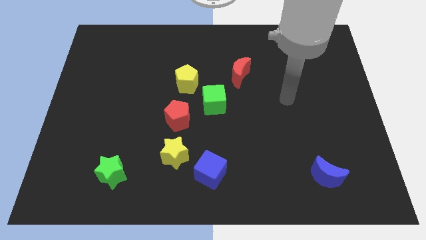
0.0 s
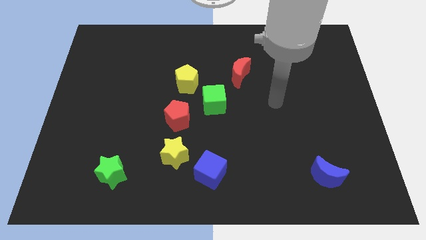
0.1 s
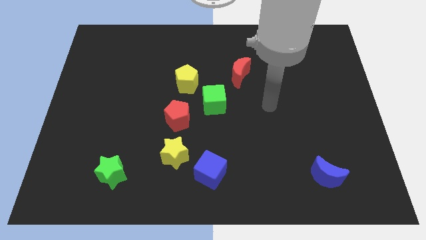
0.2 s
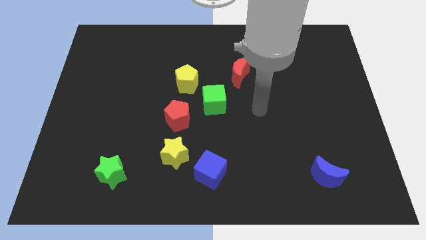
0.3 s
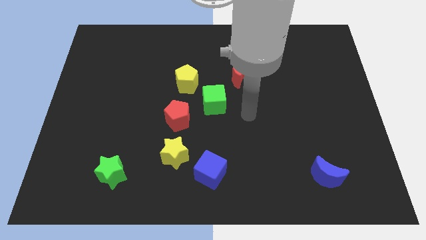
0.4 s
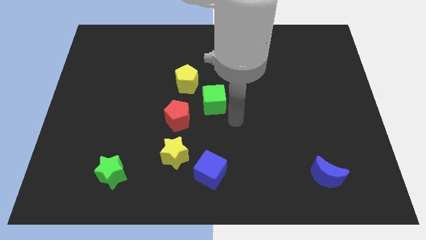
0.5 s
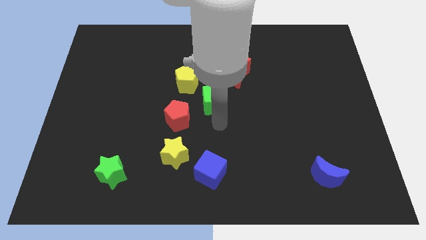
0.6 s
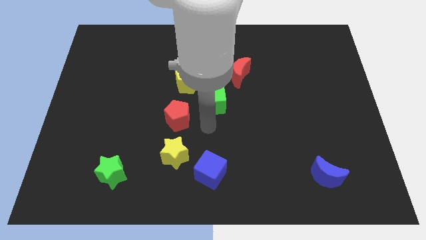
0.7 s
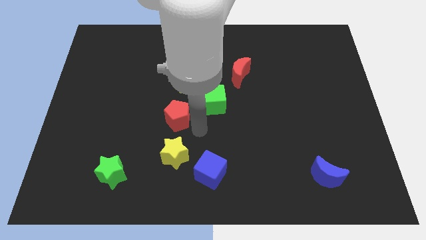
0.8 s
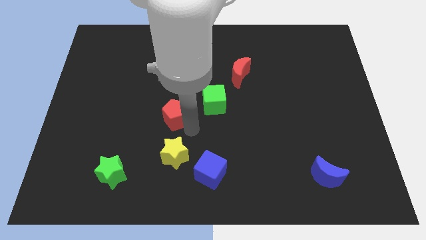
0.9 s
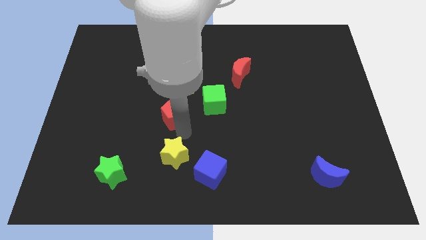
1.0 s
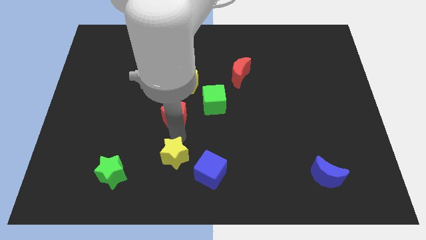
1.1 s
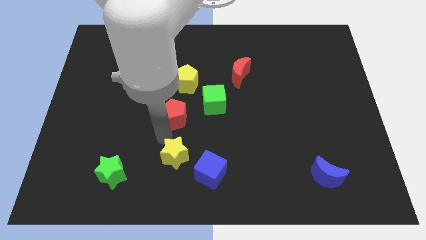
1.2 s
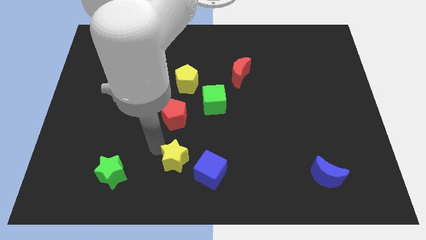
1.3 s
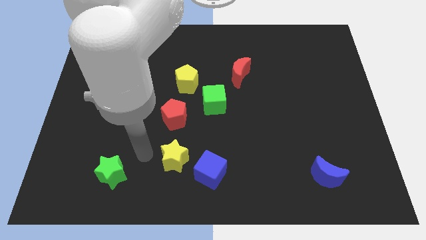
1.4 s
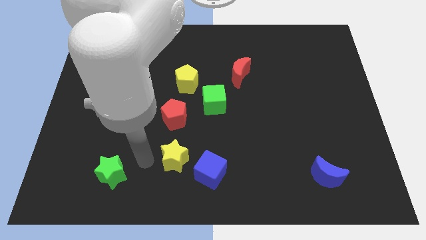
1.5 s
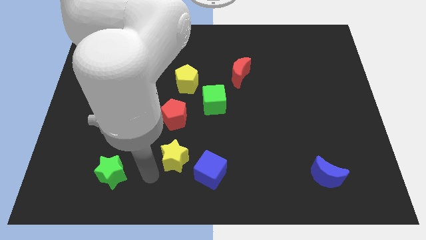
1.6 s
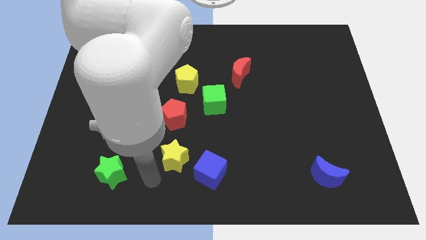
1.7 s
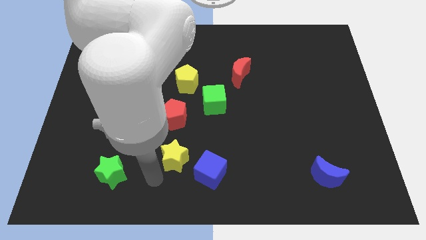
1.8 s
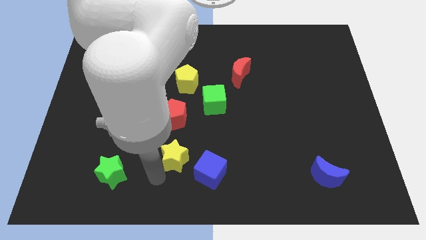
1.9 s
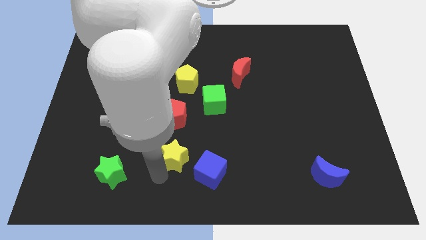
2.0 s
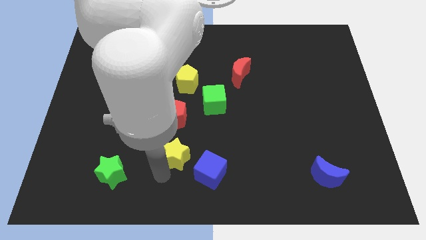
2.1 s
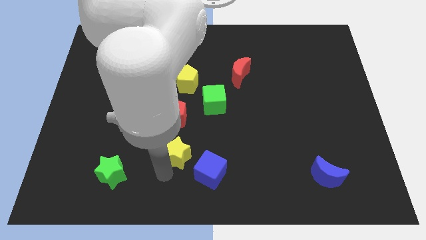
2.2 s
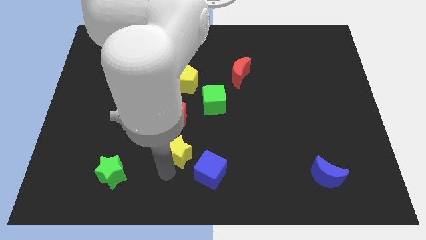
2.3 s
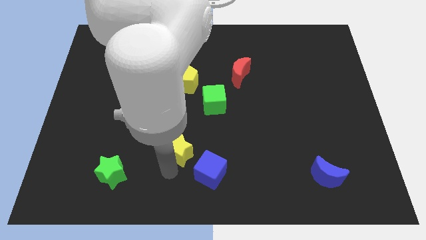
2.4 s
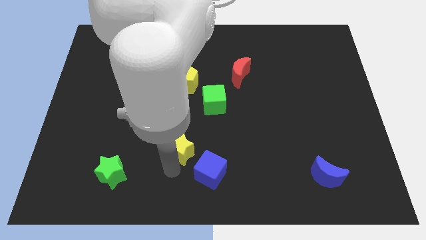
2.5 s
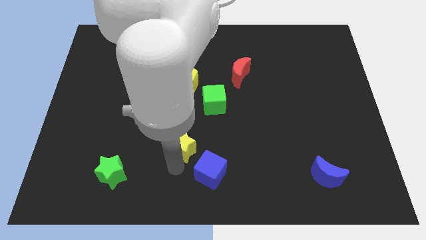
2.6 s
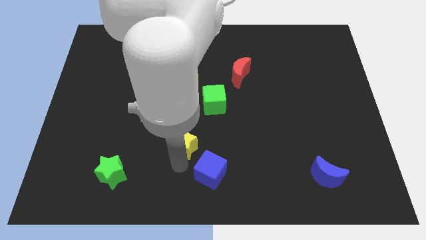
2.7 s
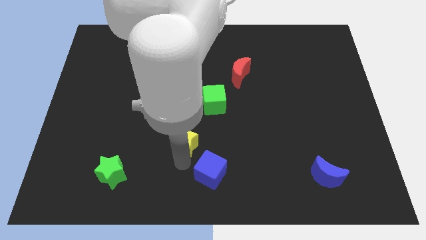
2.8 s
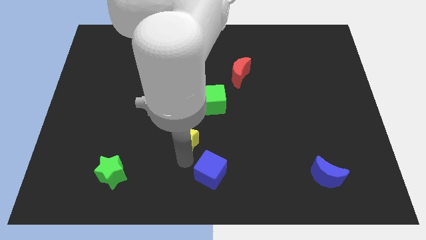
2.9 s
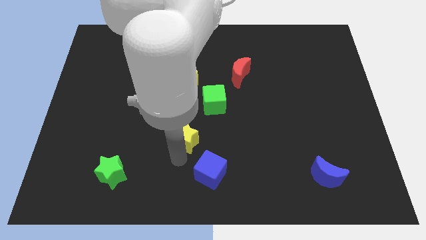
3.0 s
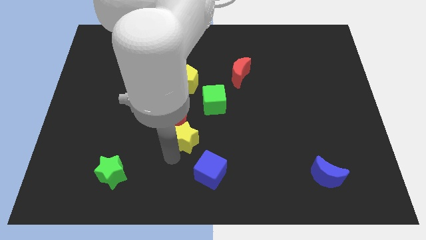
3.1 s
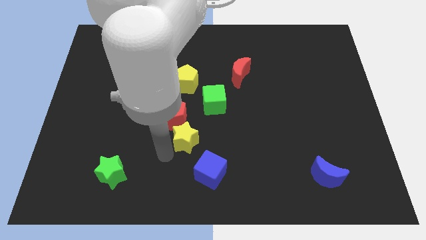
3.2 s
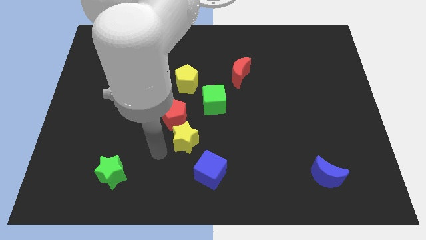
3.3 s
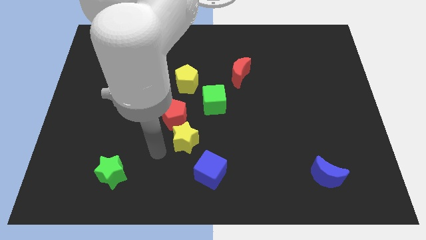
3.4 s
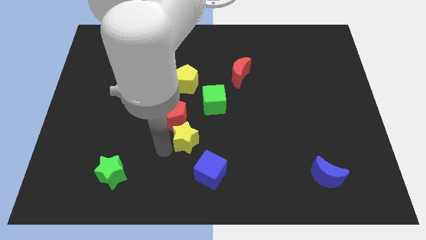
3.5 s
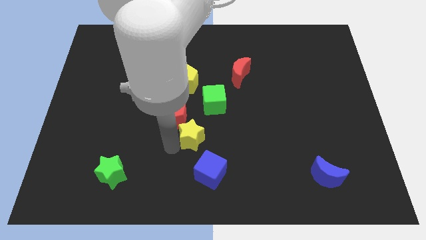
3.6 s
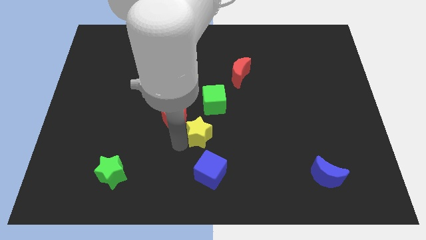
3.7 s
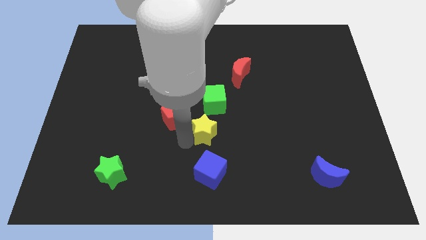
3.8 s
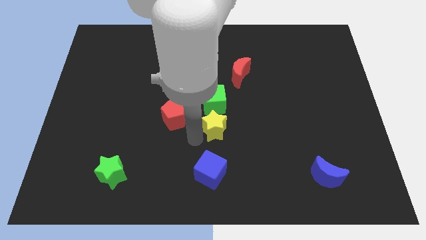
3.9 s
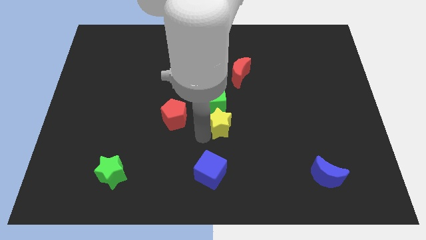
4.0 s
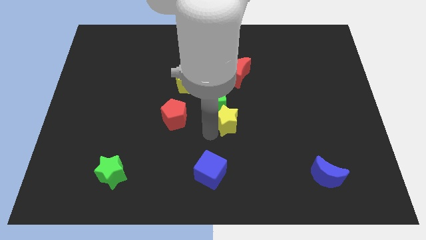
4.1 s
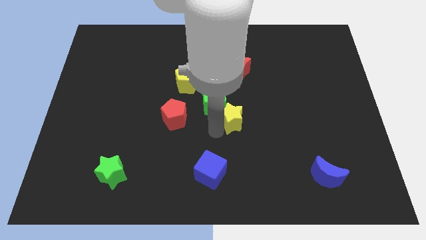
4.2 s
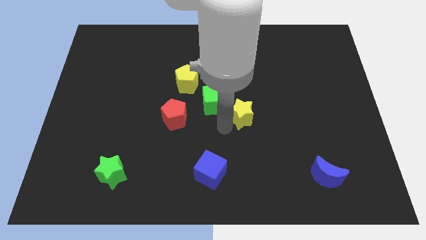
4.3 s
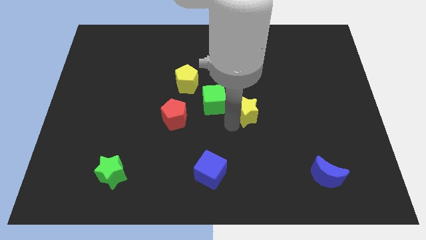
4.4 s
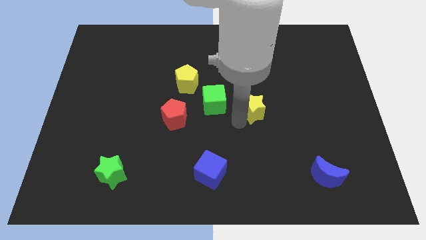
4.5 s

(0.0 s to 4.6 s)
push the yellow star upwards and then to the right

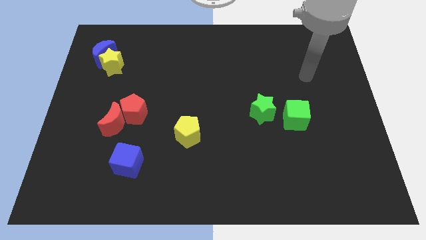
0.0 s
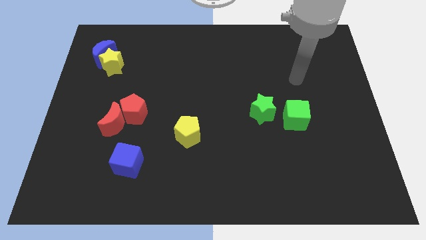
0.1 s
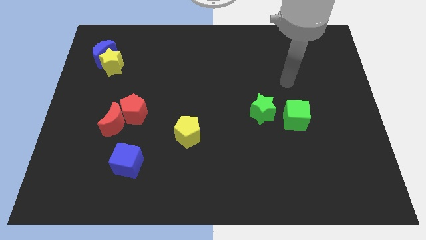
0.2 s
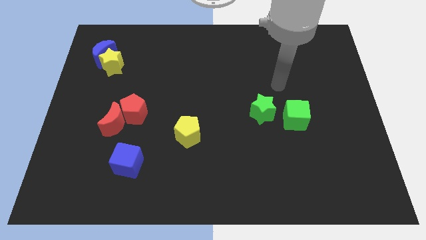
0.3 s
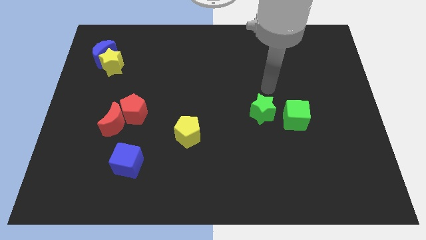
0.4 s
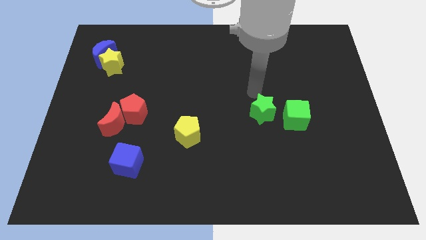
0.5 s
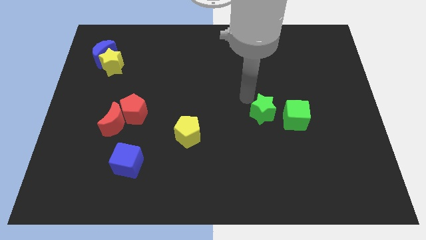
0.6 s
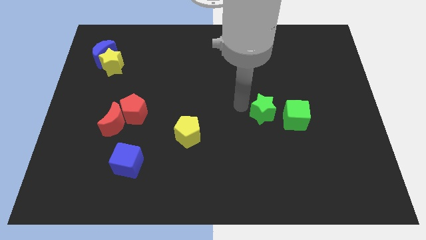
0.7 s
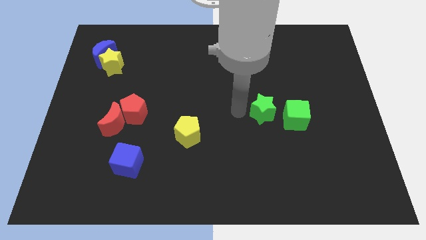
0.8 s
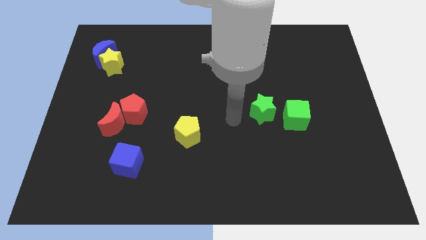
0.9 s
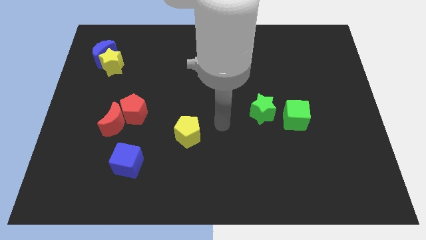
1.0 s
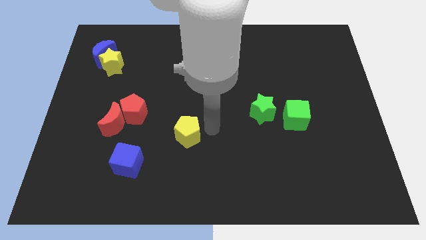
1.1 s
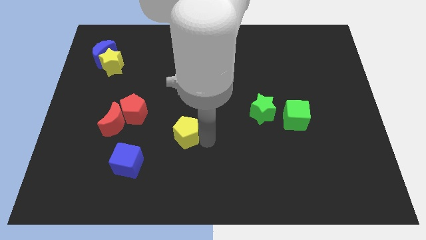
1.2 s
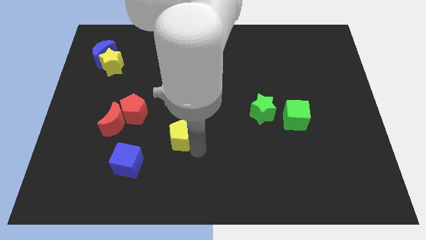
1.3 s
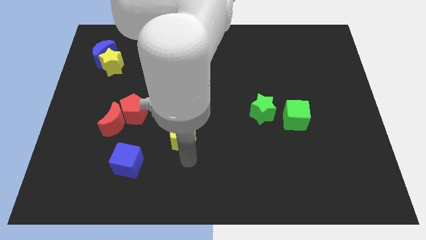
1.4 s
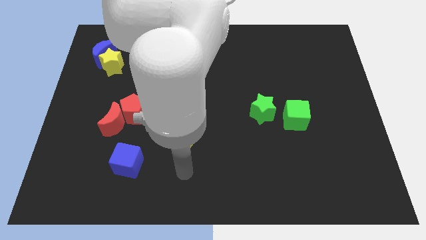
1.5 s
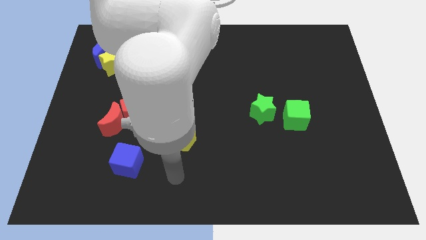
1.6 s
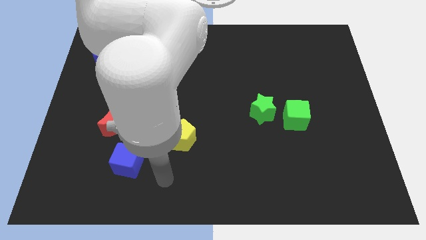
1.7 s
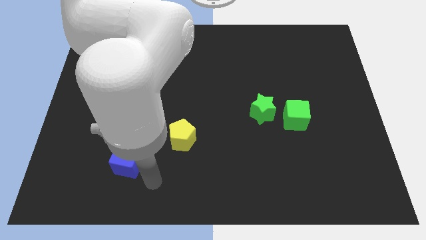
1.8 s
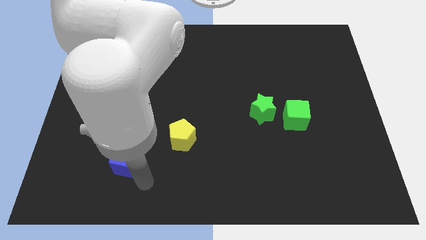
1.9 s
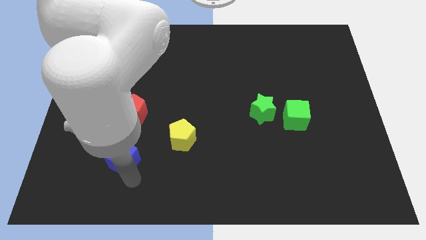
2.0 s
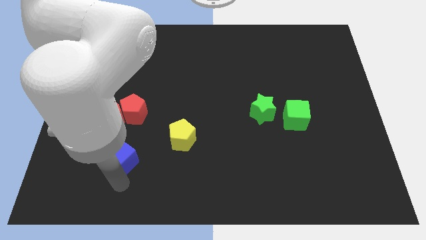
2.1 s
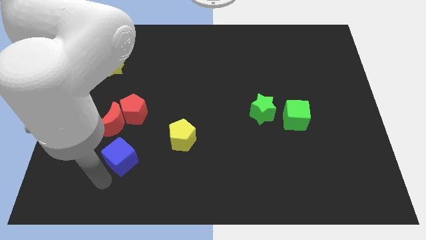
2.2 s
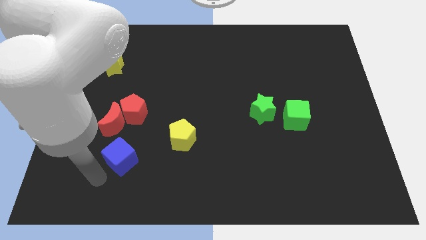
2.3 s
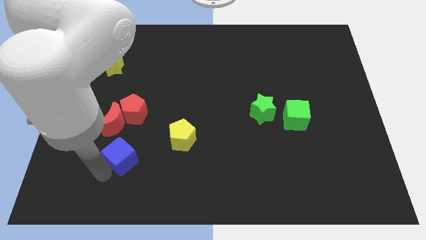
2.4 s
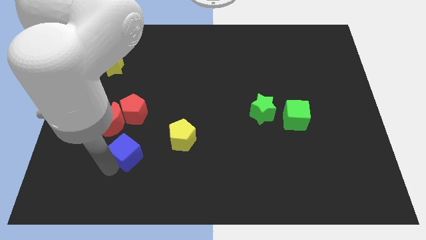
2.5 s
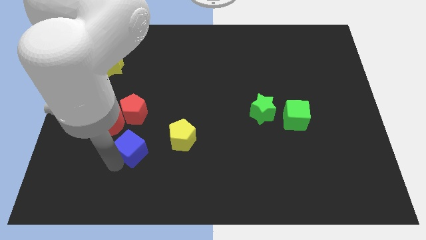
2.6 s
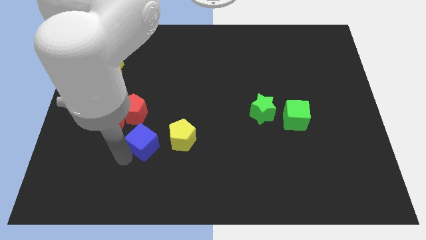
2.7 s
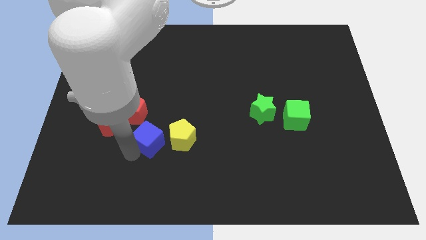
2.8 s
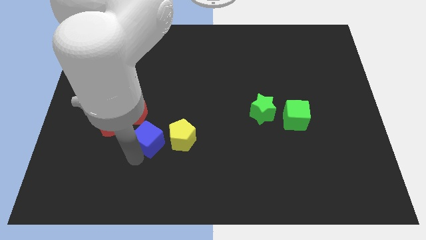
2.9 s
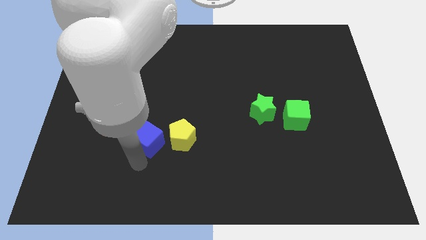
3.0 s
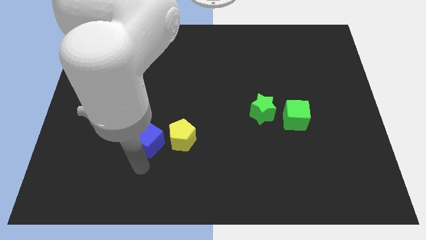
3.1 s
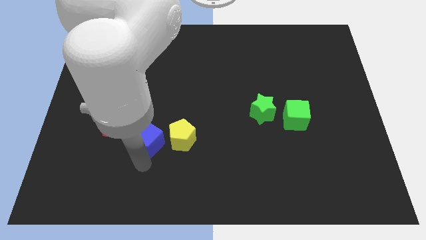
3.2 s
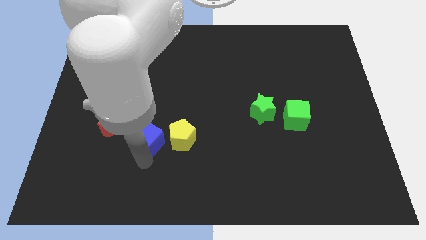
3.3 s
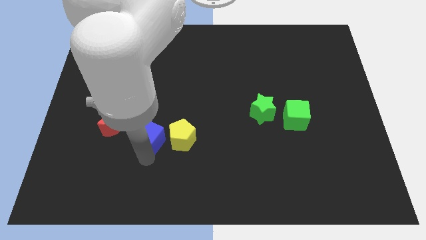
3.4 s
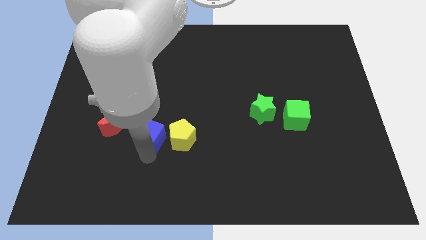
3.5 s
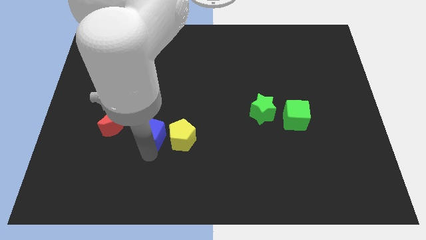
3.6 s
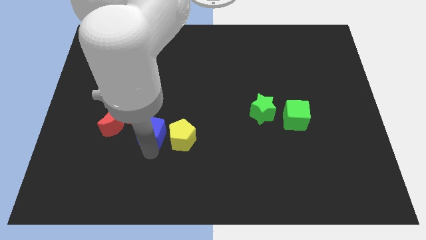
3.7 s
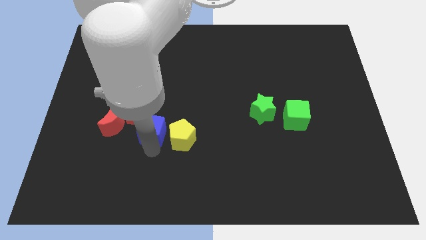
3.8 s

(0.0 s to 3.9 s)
slightly slide the blue cube up
